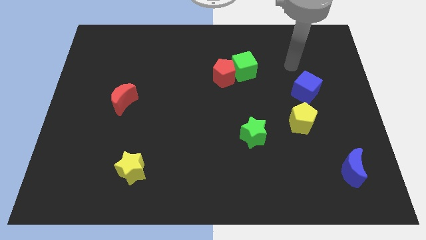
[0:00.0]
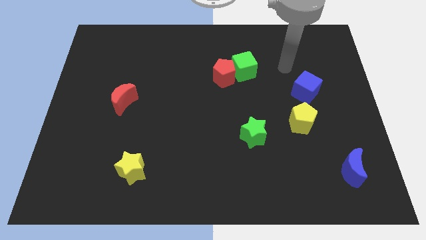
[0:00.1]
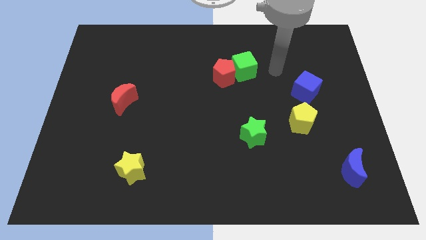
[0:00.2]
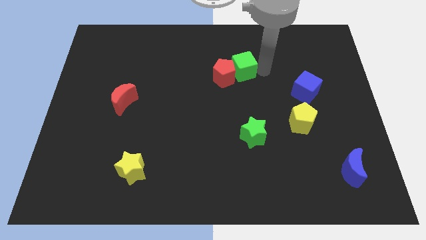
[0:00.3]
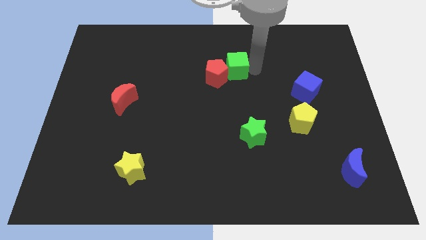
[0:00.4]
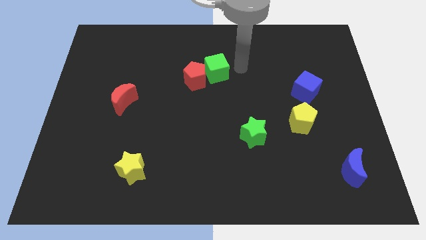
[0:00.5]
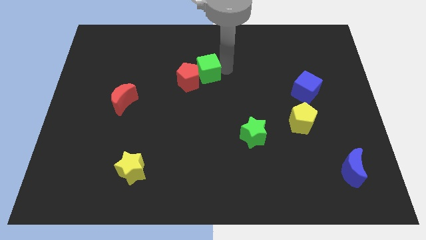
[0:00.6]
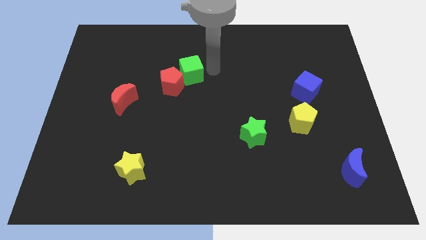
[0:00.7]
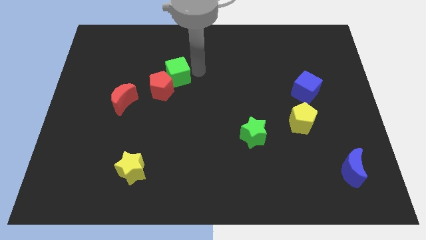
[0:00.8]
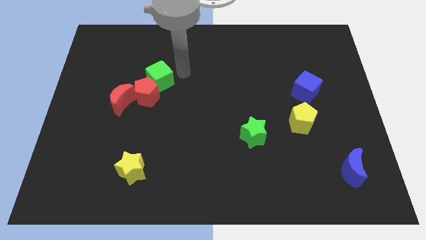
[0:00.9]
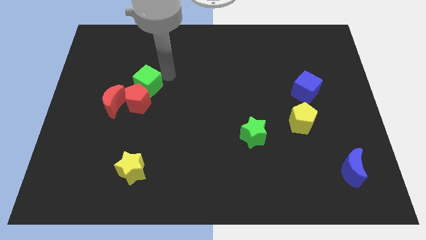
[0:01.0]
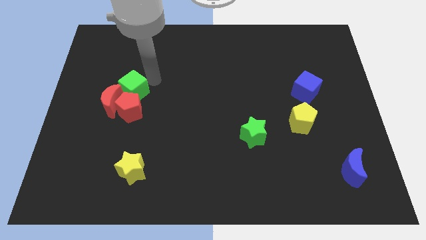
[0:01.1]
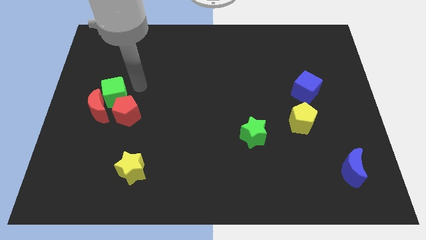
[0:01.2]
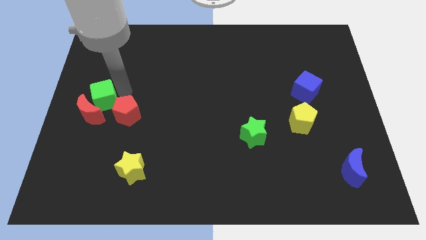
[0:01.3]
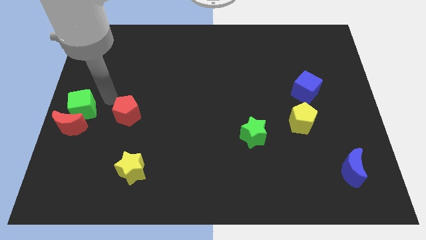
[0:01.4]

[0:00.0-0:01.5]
move the red pentagon away from the green cube

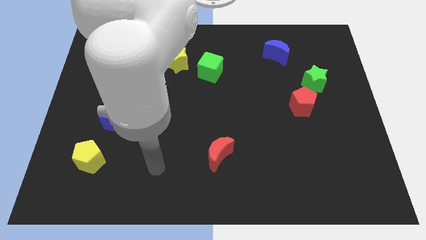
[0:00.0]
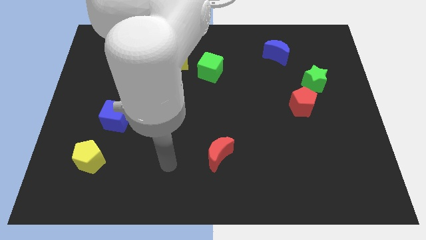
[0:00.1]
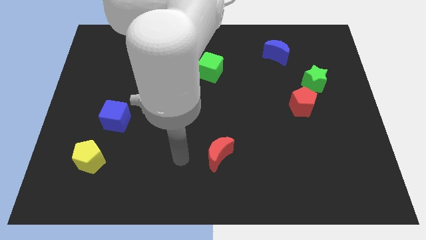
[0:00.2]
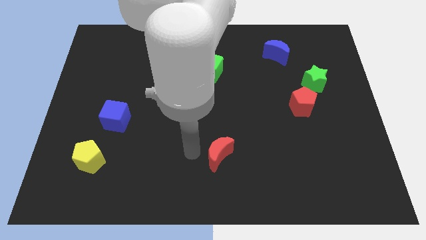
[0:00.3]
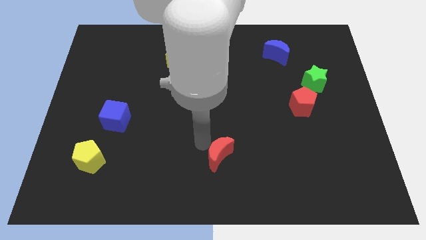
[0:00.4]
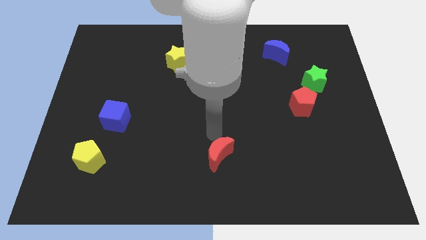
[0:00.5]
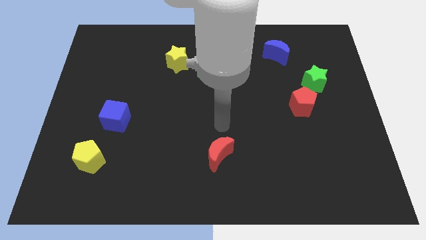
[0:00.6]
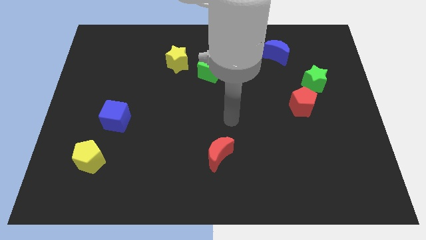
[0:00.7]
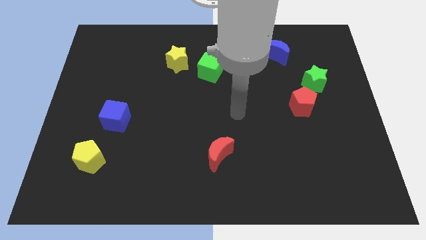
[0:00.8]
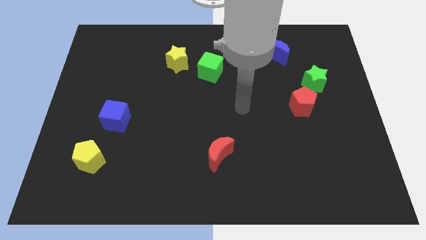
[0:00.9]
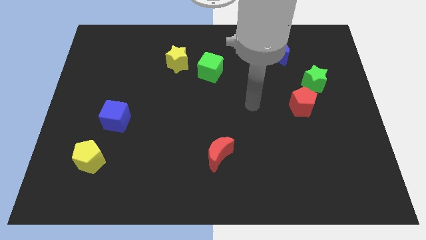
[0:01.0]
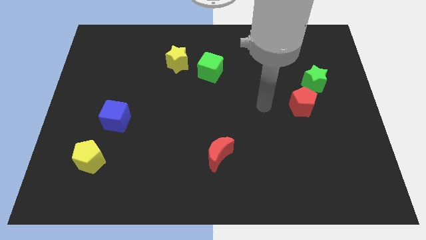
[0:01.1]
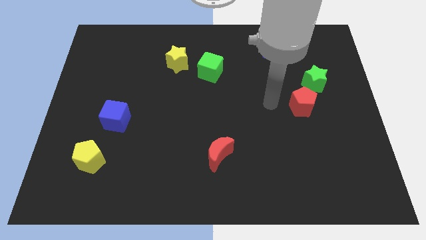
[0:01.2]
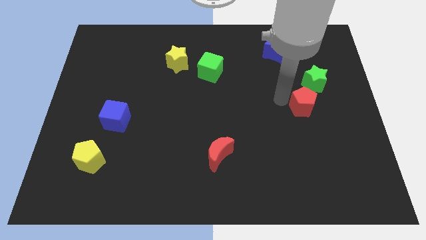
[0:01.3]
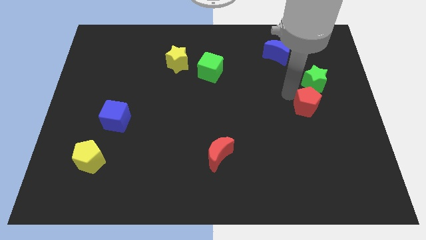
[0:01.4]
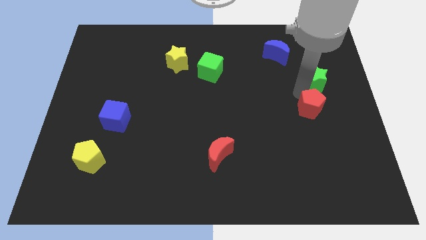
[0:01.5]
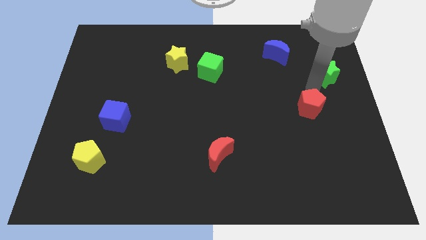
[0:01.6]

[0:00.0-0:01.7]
separate the red pentagon from the green star

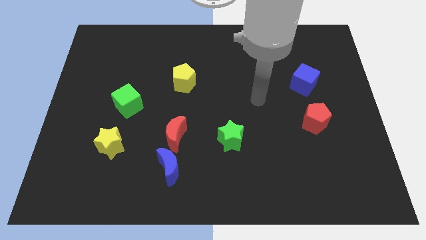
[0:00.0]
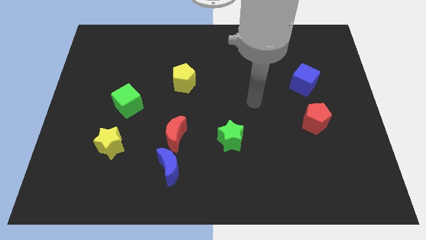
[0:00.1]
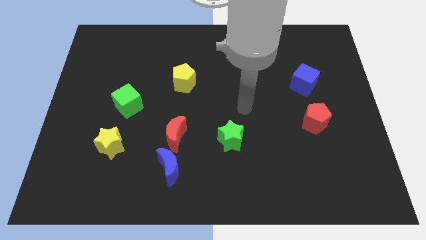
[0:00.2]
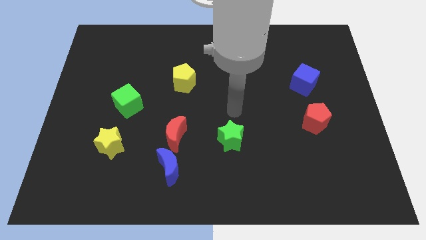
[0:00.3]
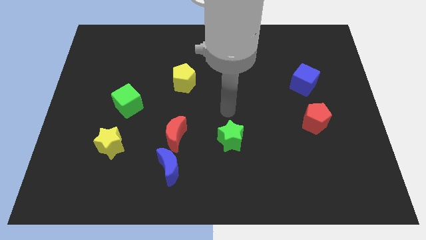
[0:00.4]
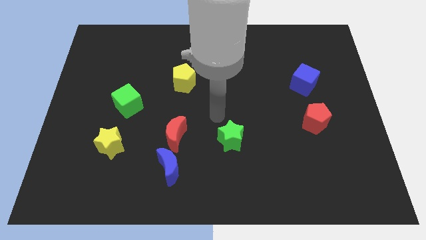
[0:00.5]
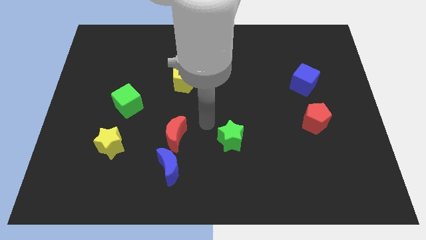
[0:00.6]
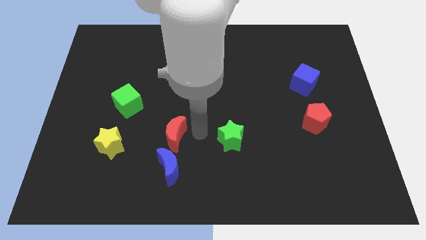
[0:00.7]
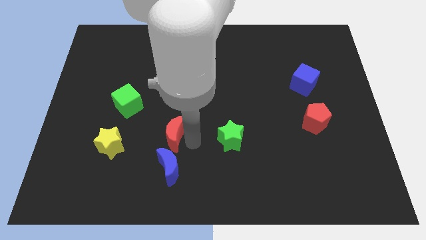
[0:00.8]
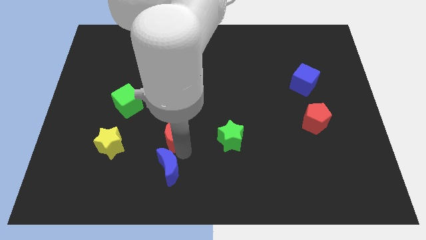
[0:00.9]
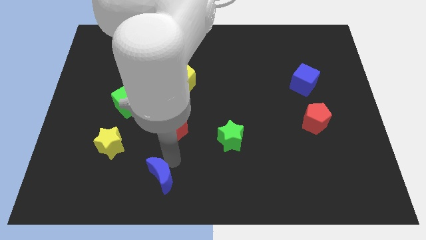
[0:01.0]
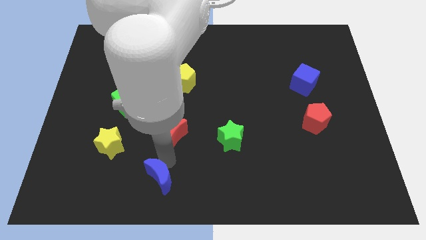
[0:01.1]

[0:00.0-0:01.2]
move the red moon away from the blue moon

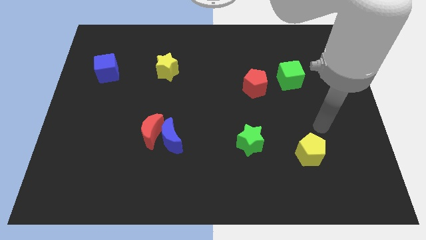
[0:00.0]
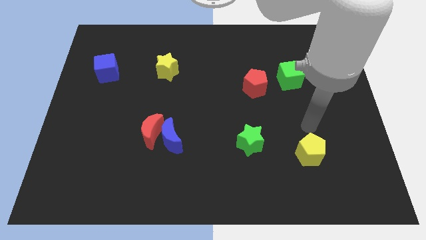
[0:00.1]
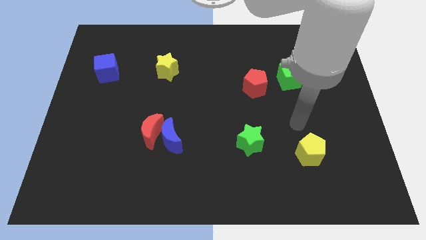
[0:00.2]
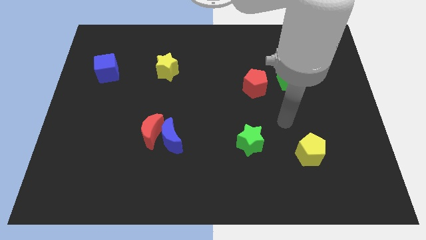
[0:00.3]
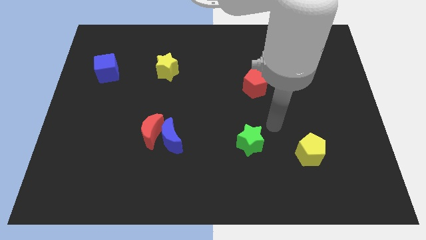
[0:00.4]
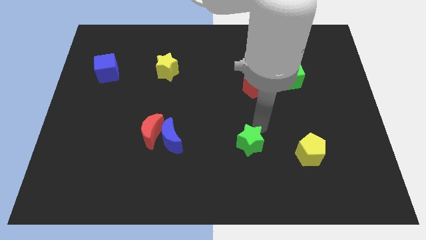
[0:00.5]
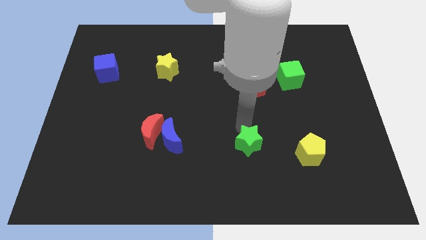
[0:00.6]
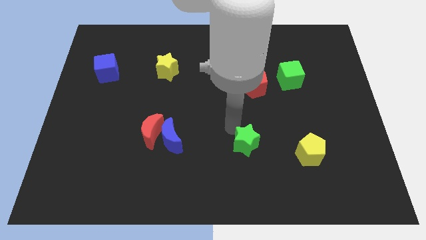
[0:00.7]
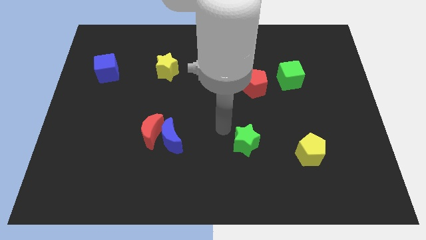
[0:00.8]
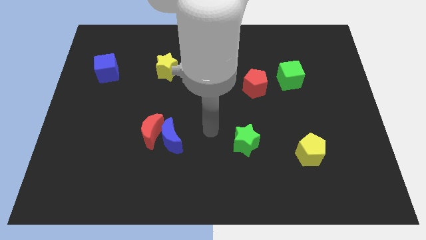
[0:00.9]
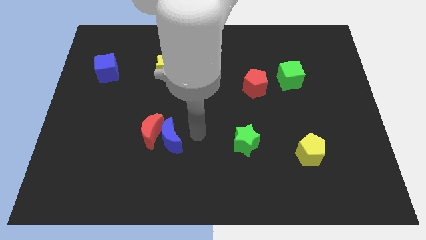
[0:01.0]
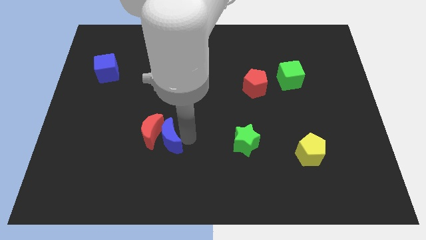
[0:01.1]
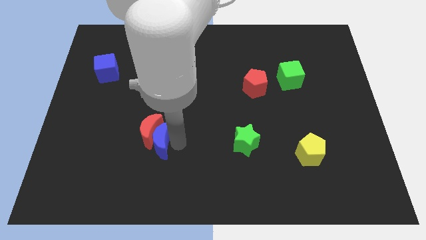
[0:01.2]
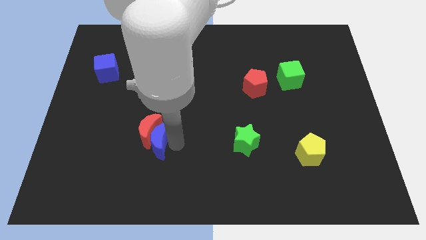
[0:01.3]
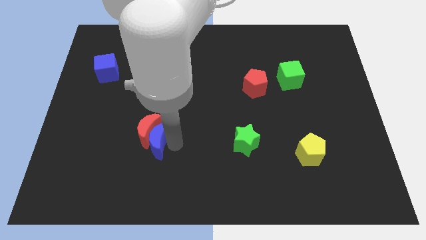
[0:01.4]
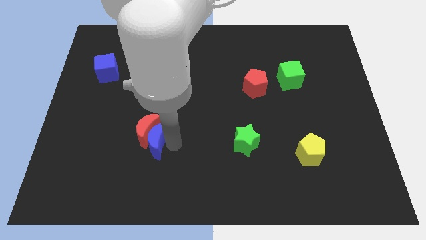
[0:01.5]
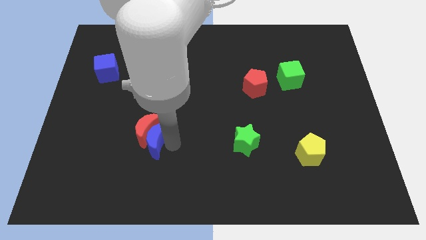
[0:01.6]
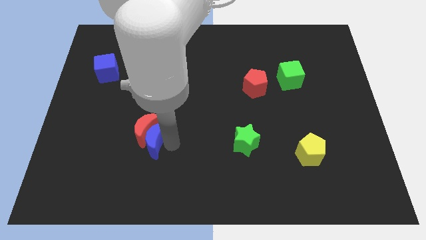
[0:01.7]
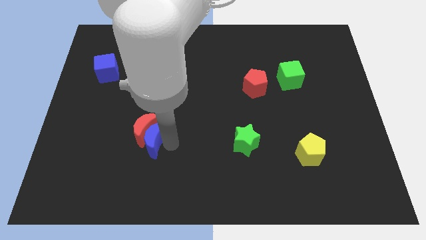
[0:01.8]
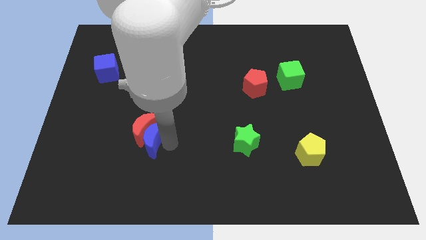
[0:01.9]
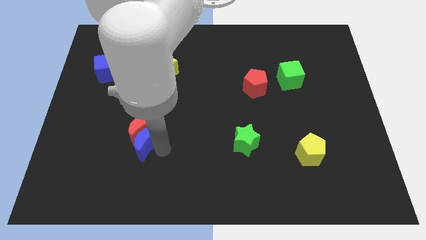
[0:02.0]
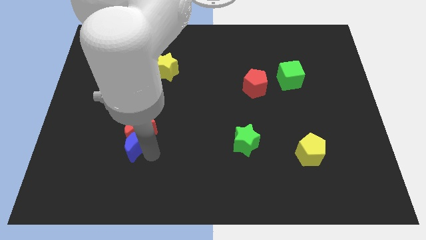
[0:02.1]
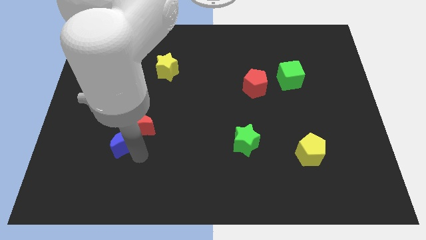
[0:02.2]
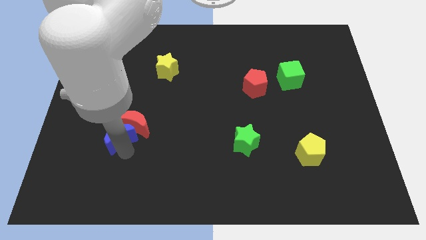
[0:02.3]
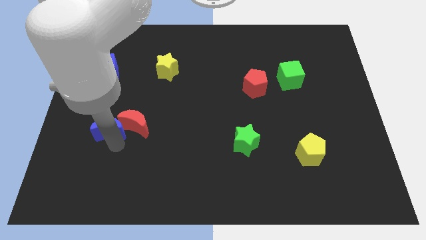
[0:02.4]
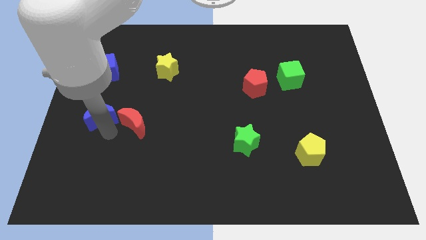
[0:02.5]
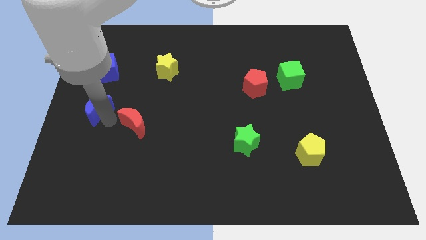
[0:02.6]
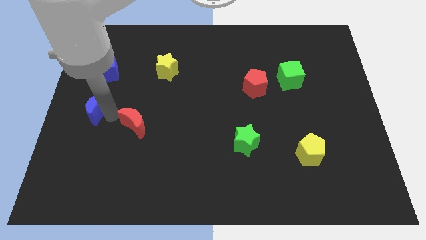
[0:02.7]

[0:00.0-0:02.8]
separate the red moon from the blue moon

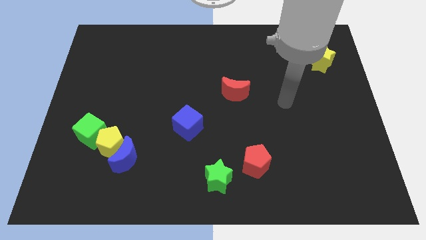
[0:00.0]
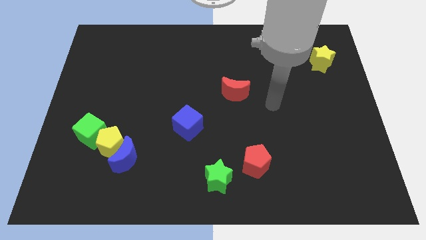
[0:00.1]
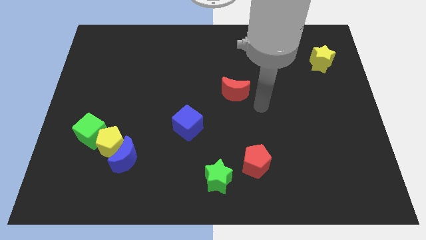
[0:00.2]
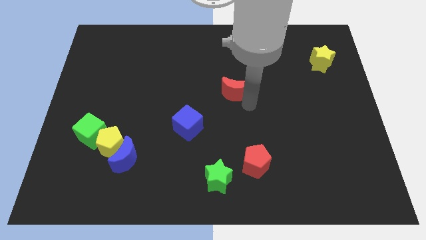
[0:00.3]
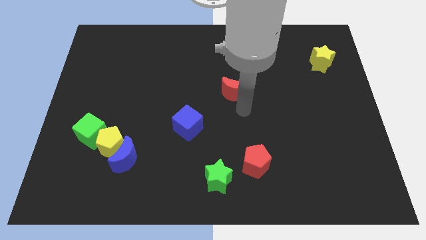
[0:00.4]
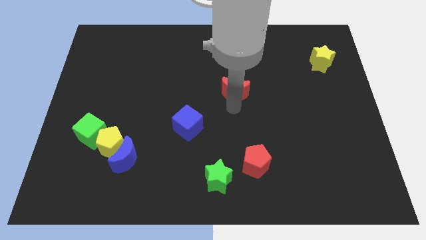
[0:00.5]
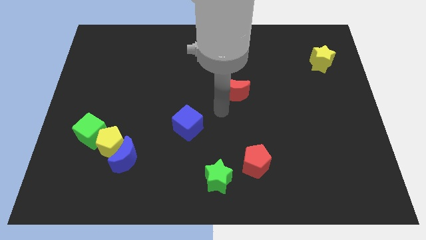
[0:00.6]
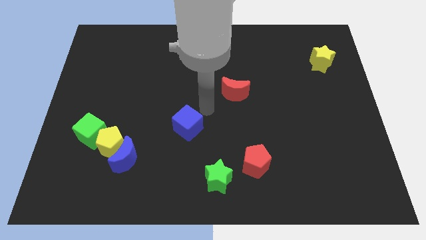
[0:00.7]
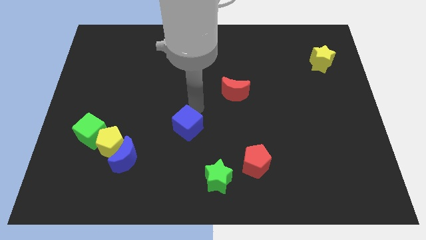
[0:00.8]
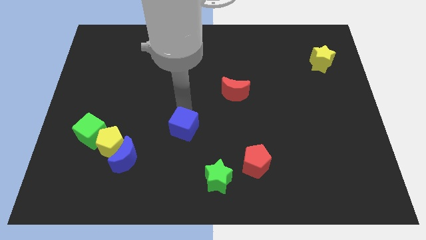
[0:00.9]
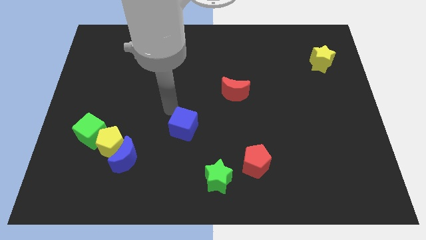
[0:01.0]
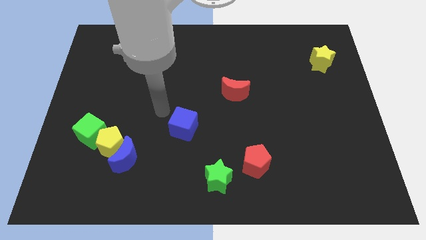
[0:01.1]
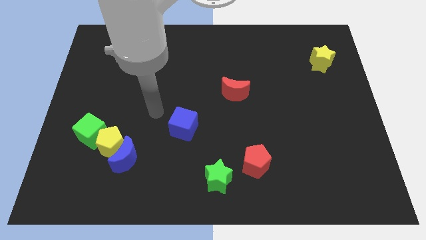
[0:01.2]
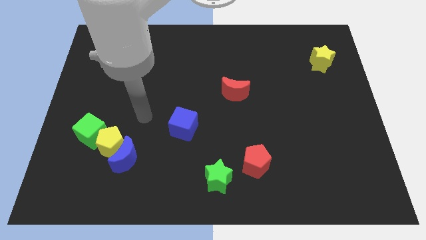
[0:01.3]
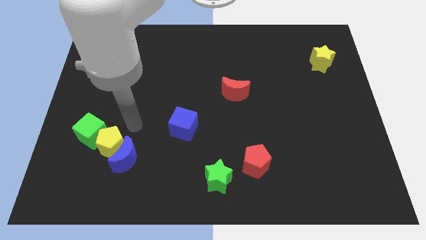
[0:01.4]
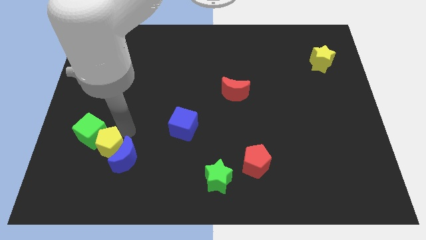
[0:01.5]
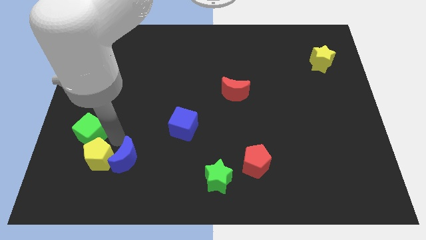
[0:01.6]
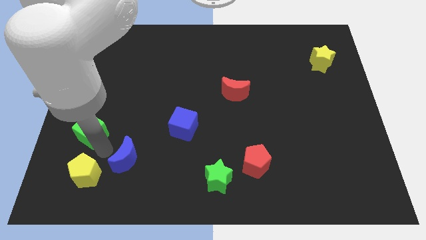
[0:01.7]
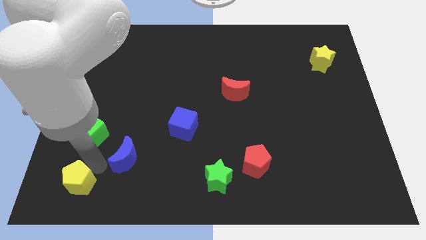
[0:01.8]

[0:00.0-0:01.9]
separate the blue moon from the yellow pentagon

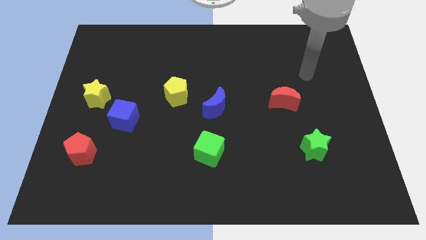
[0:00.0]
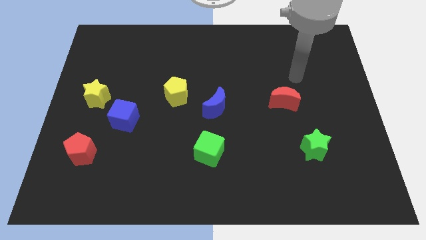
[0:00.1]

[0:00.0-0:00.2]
move the blue cube away from the yellow star
